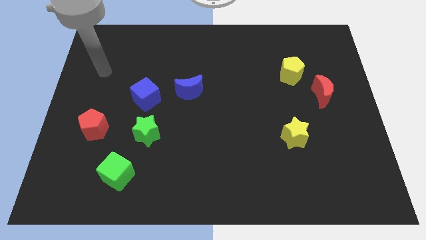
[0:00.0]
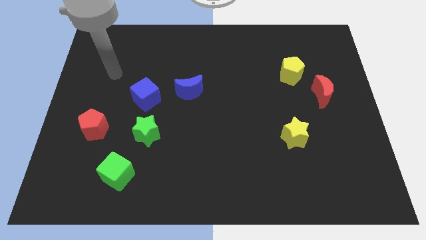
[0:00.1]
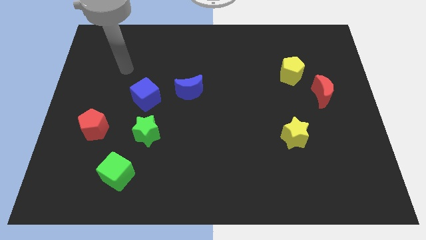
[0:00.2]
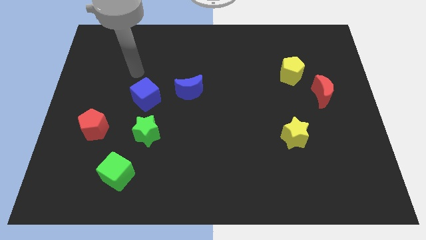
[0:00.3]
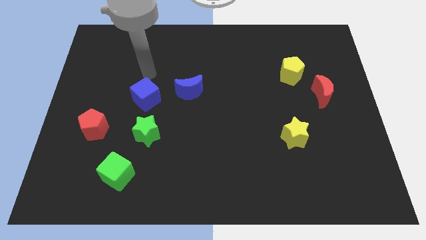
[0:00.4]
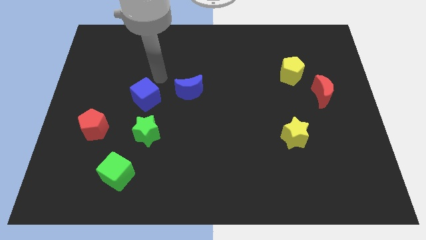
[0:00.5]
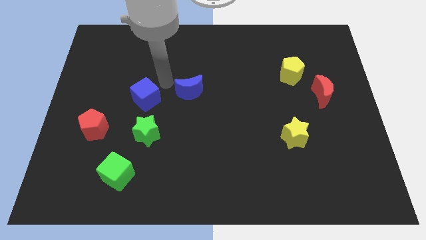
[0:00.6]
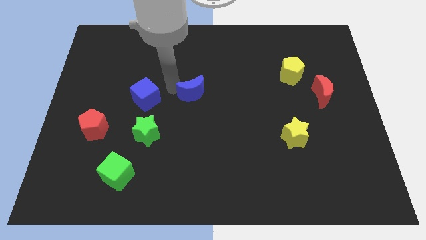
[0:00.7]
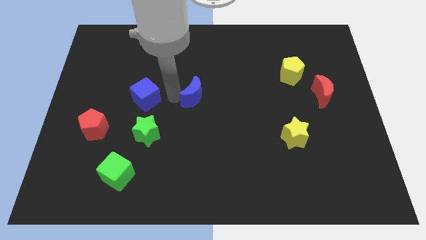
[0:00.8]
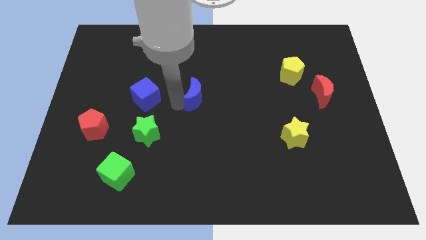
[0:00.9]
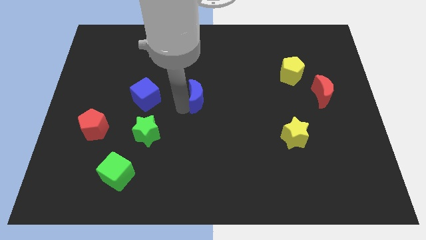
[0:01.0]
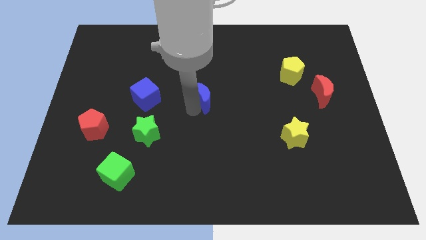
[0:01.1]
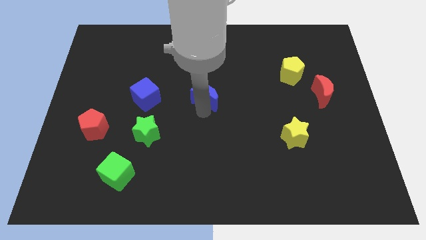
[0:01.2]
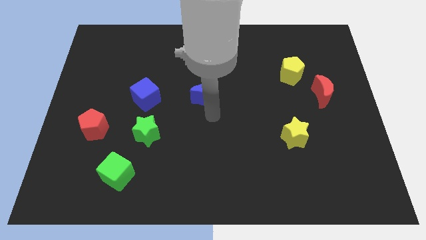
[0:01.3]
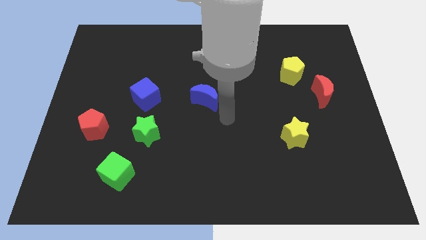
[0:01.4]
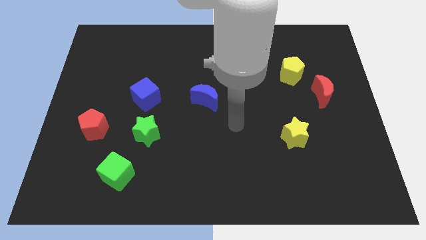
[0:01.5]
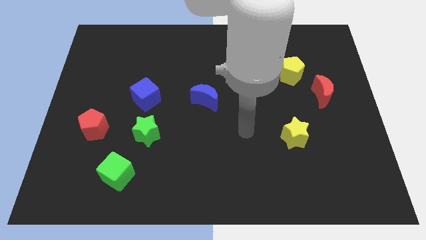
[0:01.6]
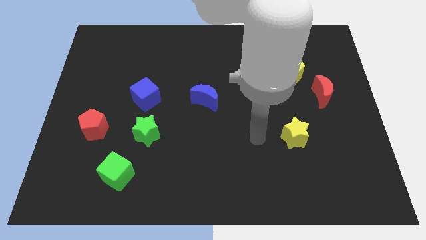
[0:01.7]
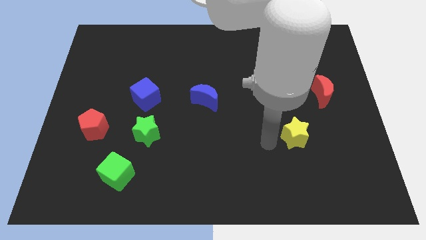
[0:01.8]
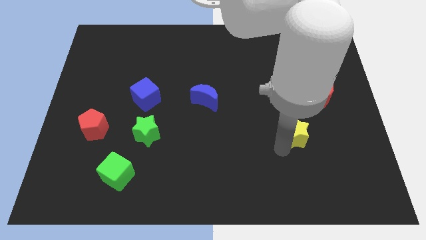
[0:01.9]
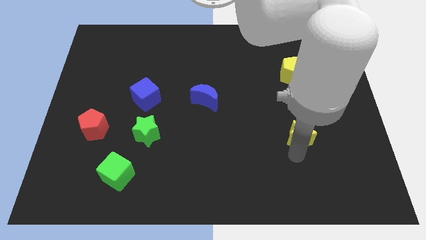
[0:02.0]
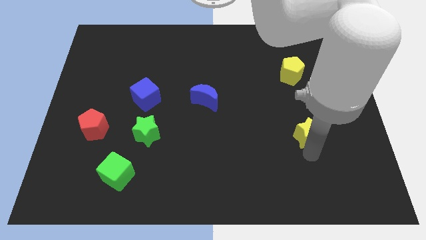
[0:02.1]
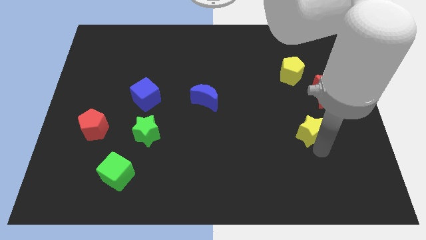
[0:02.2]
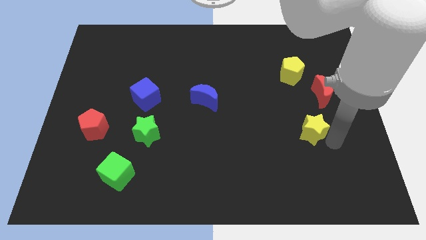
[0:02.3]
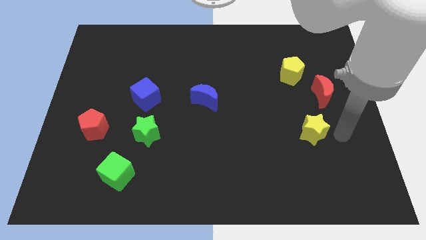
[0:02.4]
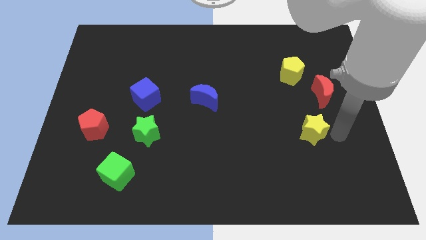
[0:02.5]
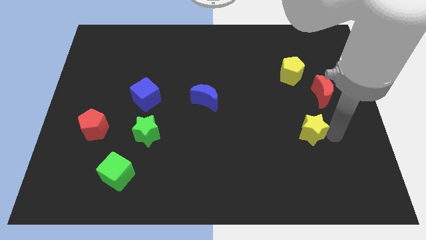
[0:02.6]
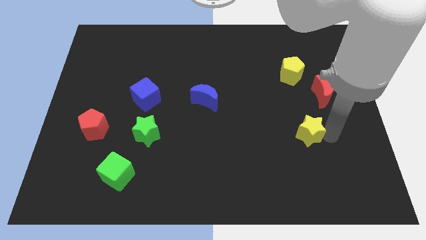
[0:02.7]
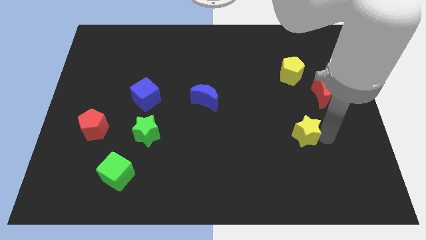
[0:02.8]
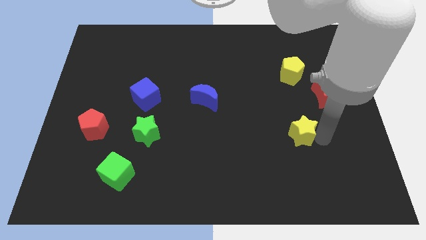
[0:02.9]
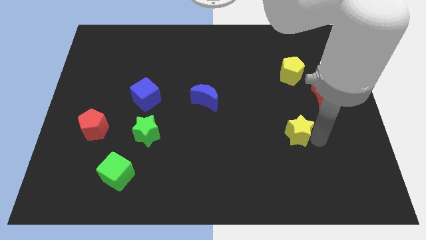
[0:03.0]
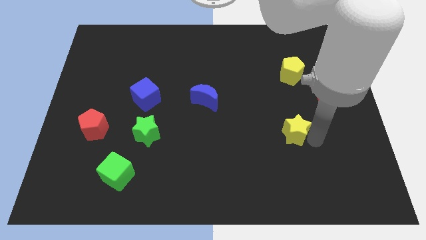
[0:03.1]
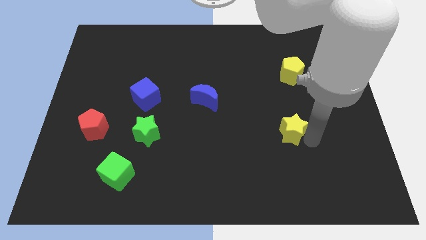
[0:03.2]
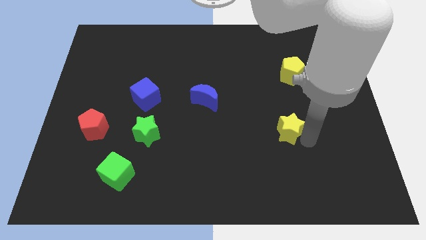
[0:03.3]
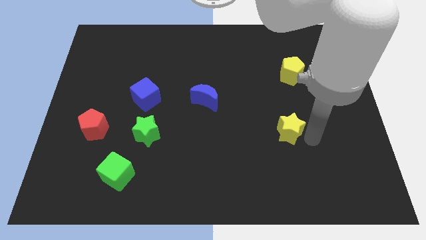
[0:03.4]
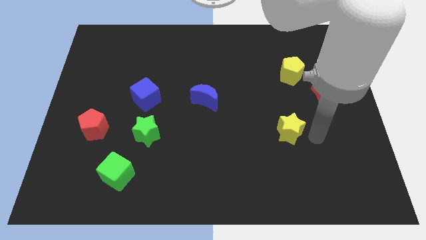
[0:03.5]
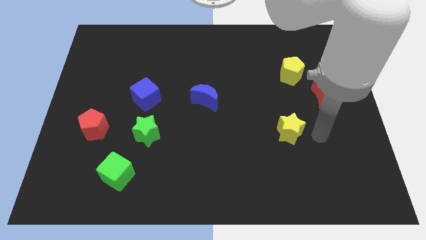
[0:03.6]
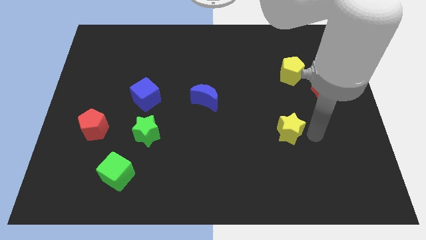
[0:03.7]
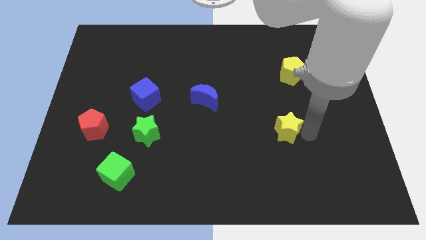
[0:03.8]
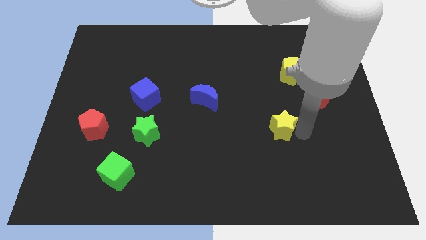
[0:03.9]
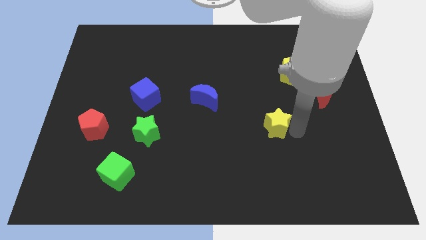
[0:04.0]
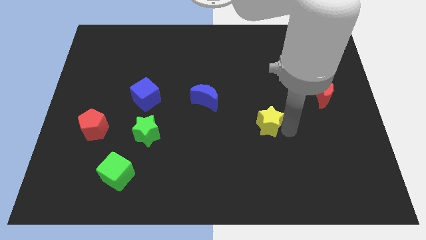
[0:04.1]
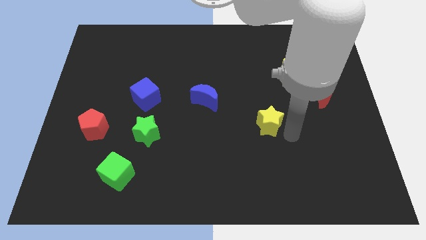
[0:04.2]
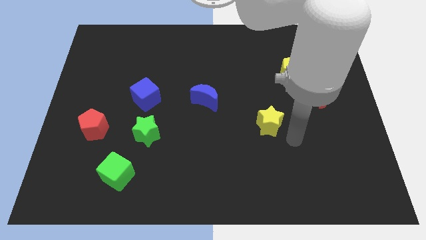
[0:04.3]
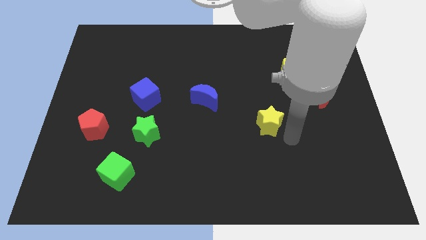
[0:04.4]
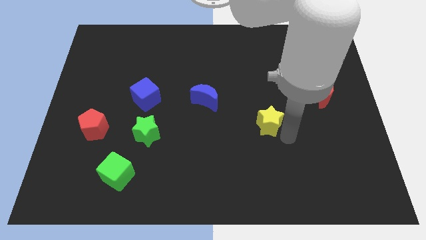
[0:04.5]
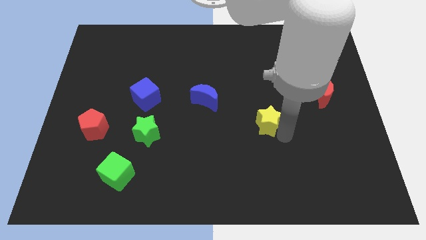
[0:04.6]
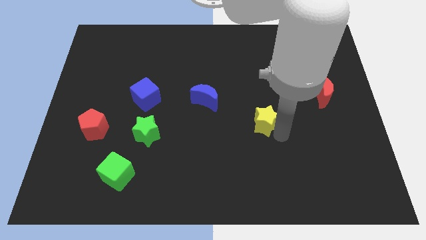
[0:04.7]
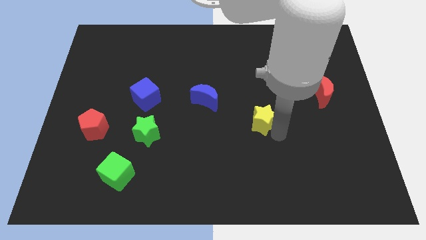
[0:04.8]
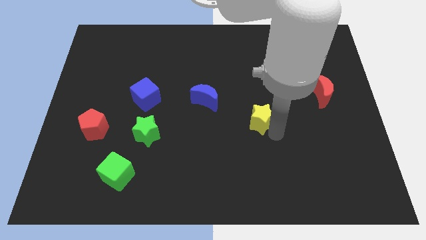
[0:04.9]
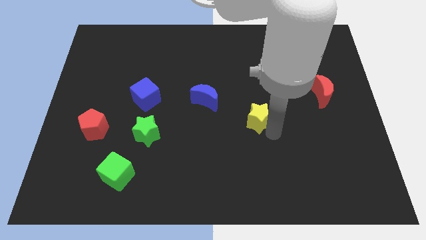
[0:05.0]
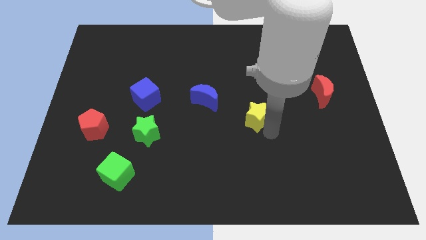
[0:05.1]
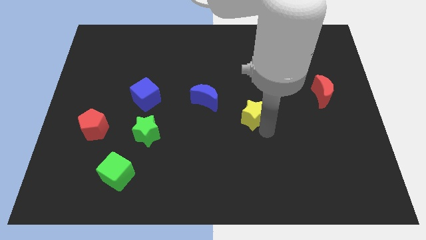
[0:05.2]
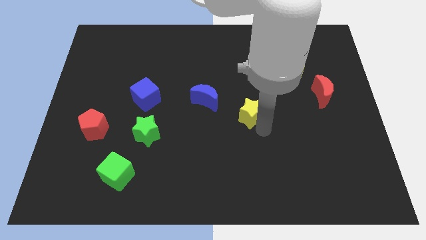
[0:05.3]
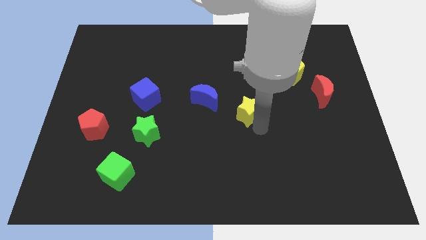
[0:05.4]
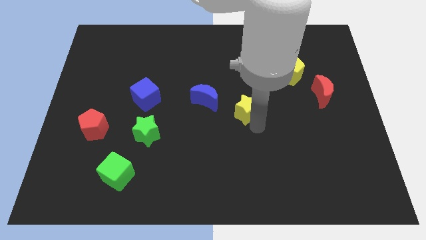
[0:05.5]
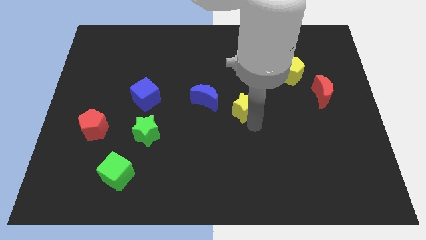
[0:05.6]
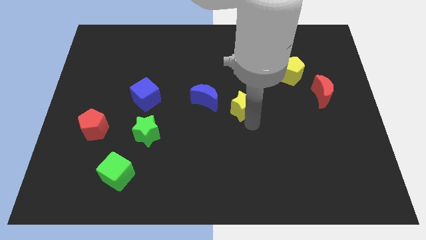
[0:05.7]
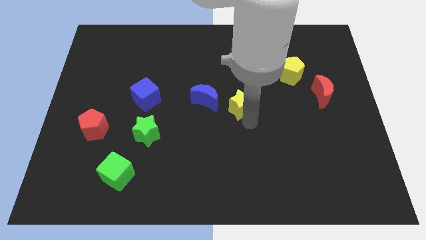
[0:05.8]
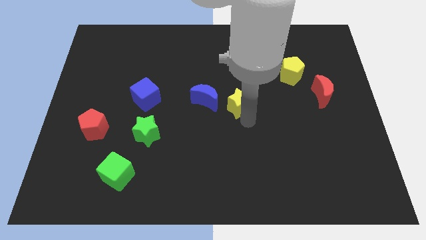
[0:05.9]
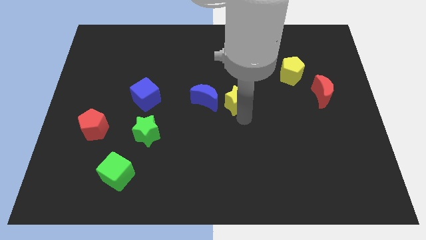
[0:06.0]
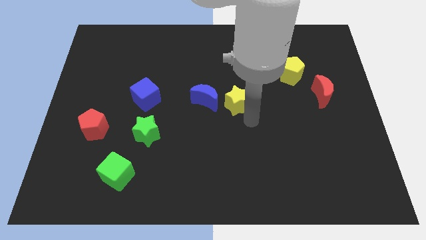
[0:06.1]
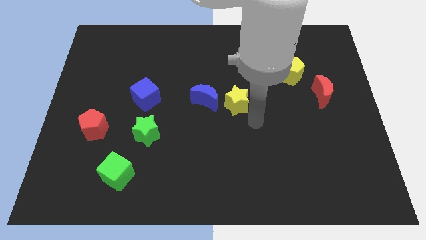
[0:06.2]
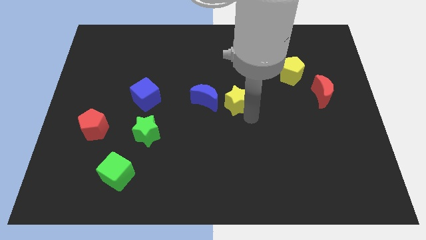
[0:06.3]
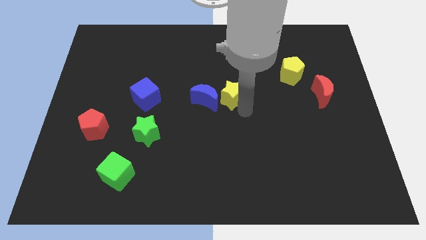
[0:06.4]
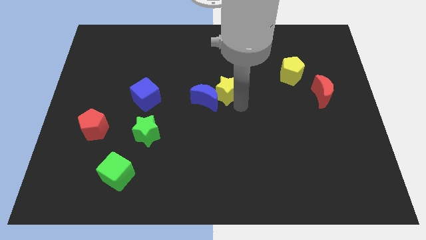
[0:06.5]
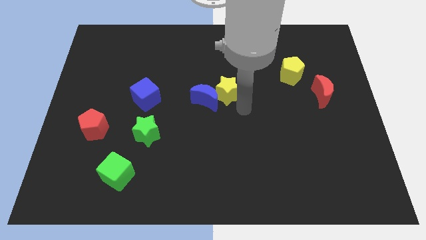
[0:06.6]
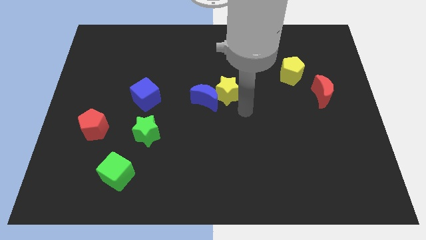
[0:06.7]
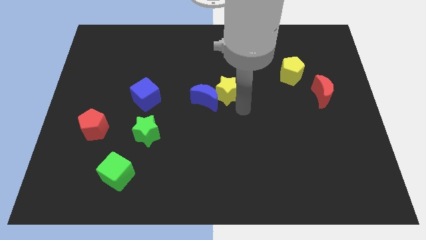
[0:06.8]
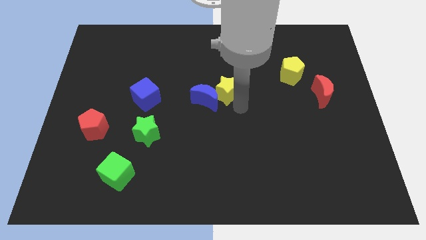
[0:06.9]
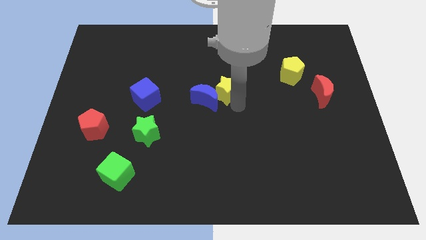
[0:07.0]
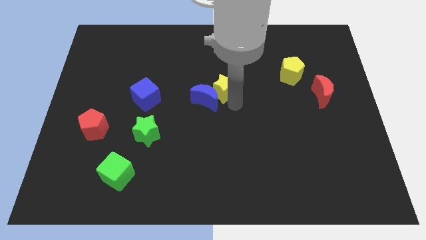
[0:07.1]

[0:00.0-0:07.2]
move the yellow star up and left diagonally

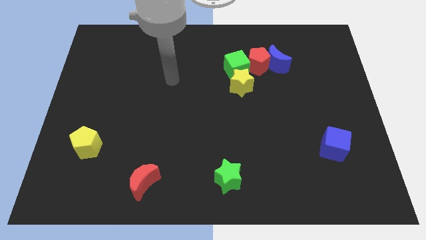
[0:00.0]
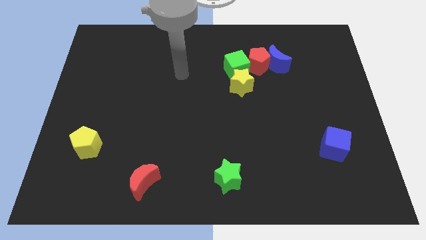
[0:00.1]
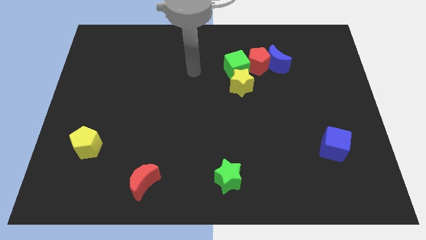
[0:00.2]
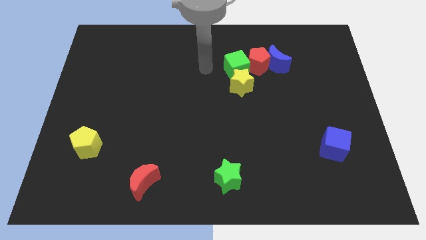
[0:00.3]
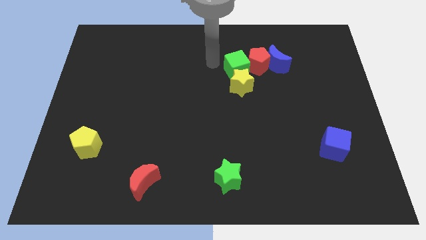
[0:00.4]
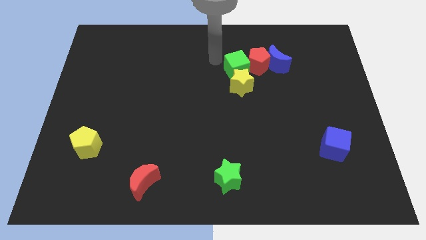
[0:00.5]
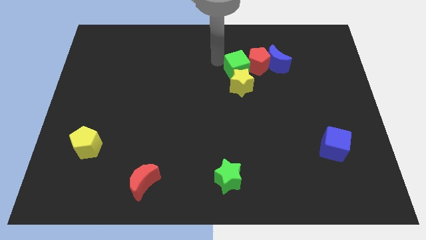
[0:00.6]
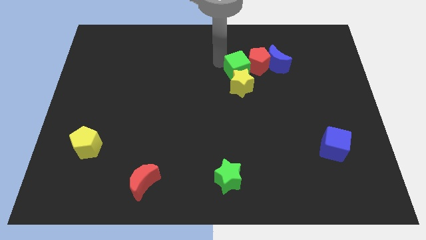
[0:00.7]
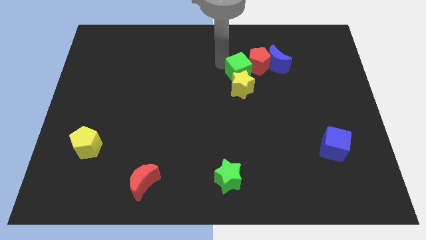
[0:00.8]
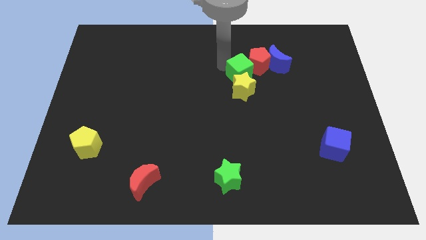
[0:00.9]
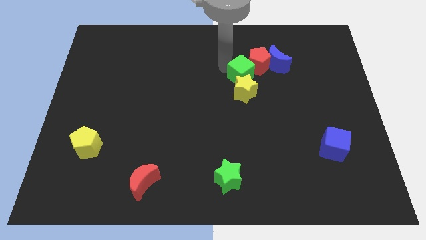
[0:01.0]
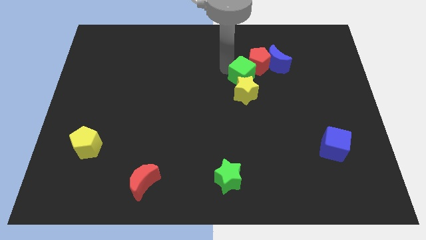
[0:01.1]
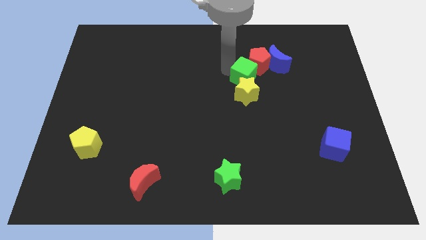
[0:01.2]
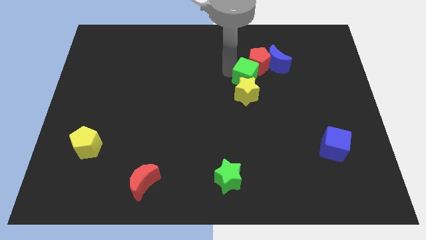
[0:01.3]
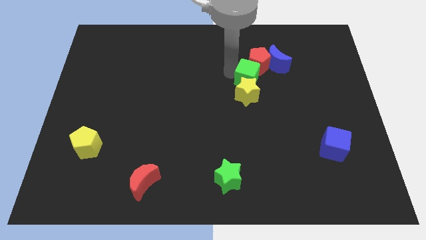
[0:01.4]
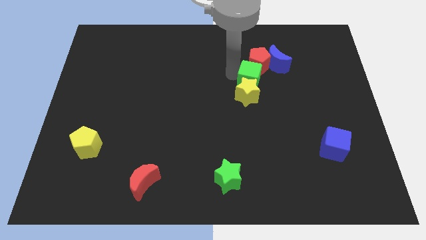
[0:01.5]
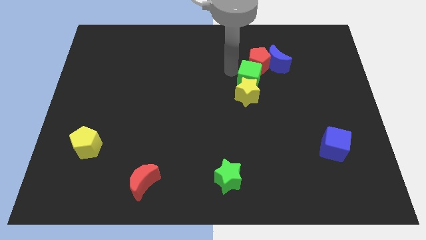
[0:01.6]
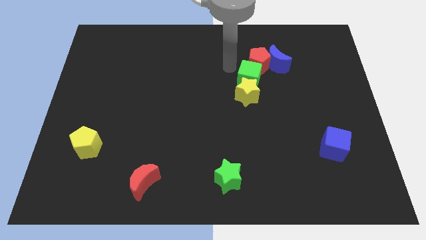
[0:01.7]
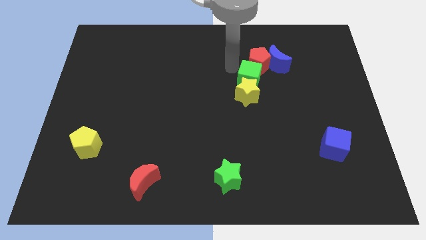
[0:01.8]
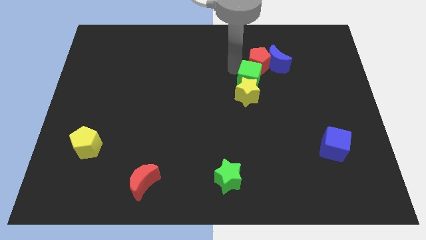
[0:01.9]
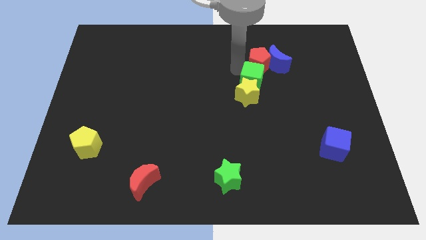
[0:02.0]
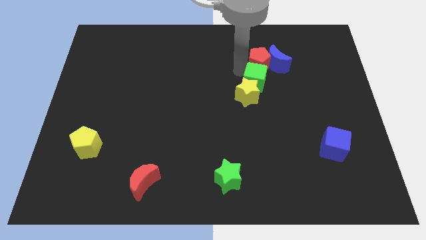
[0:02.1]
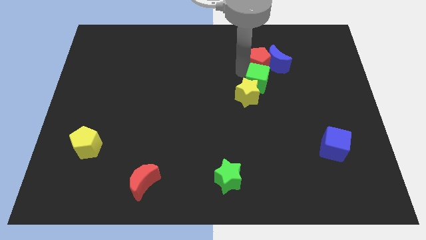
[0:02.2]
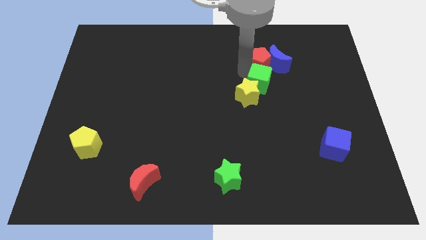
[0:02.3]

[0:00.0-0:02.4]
slide the green cube down and to the right diagonally slightly
